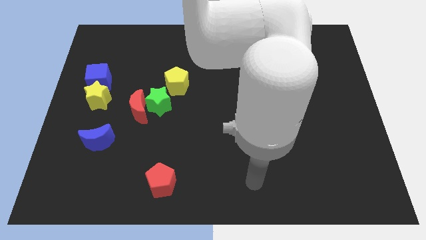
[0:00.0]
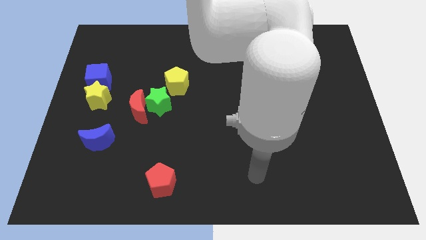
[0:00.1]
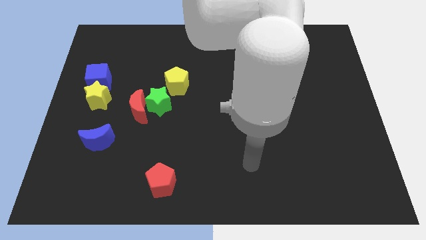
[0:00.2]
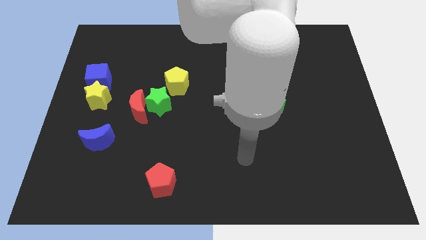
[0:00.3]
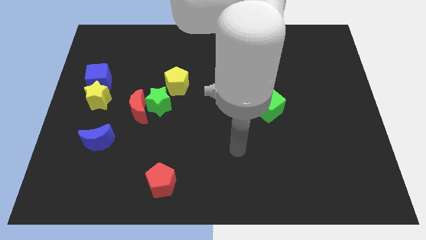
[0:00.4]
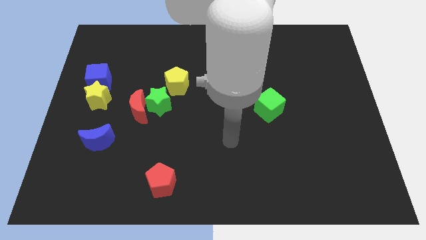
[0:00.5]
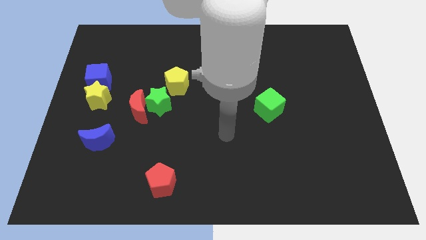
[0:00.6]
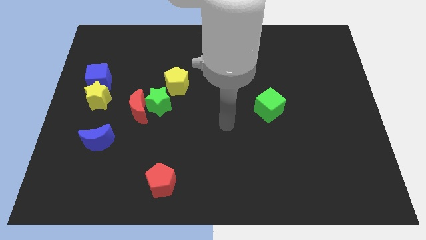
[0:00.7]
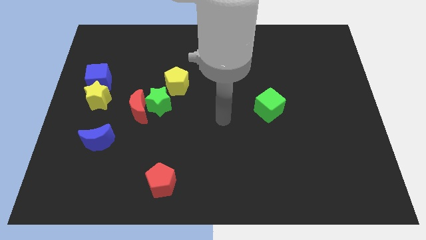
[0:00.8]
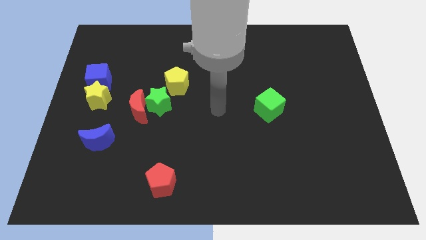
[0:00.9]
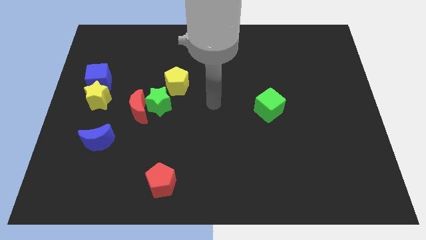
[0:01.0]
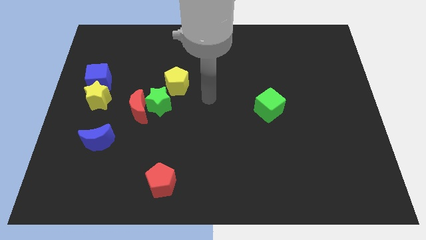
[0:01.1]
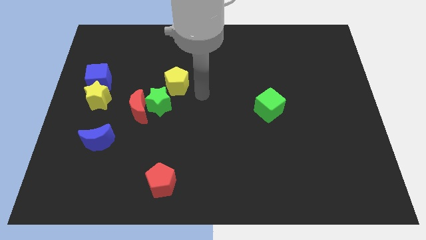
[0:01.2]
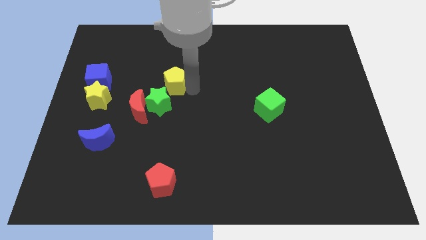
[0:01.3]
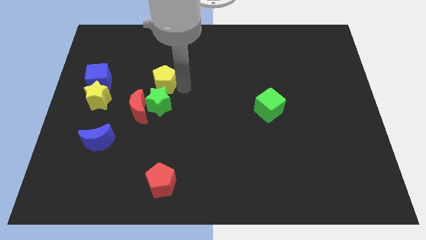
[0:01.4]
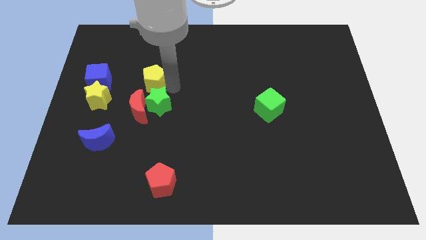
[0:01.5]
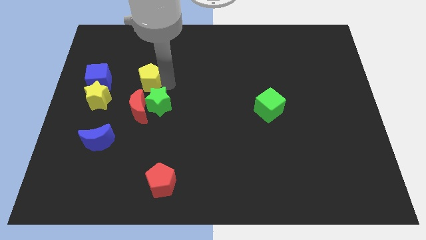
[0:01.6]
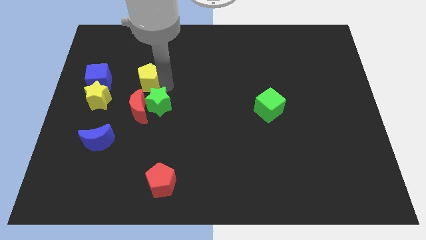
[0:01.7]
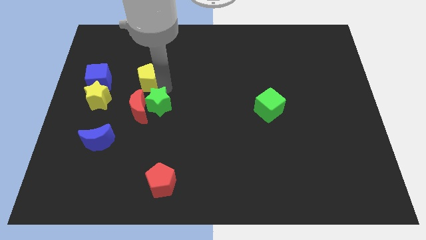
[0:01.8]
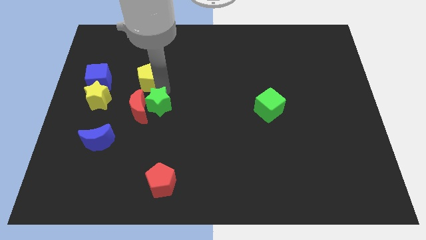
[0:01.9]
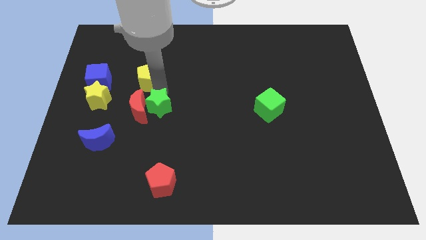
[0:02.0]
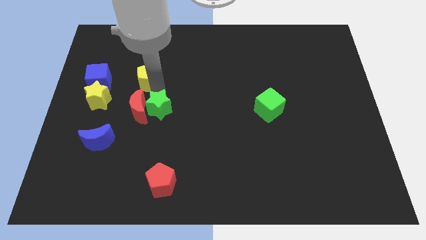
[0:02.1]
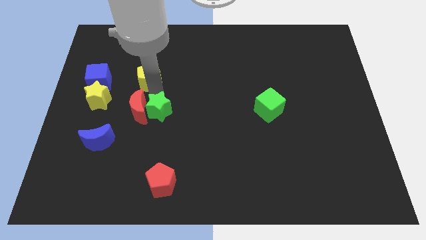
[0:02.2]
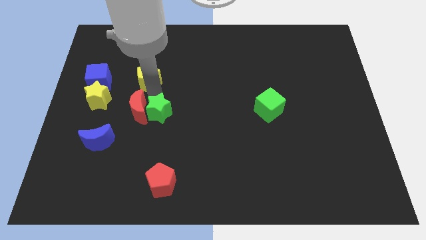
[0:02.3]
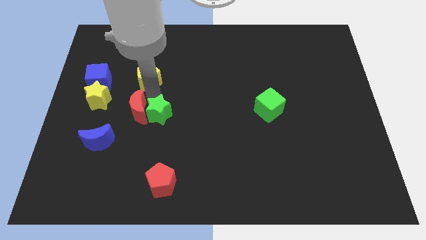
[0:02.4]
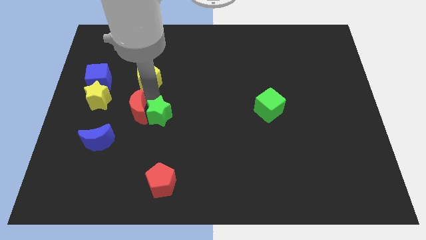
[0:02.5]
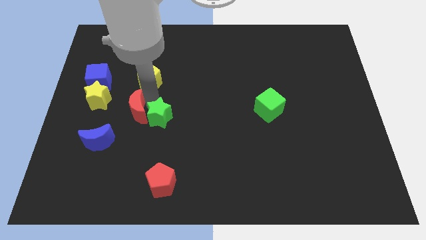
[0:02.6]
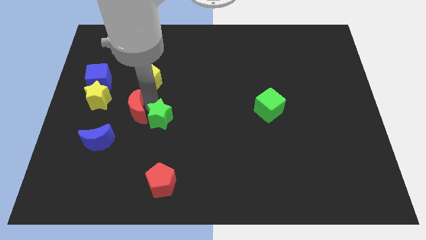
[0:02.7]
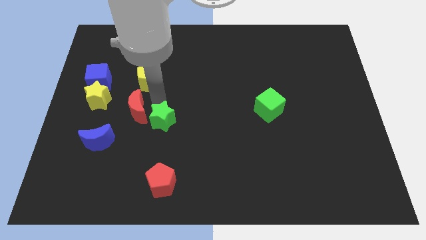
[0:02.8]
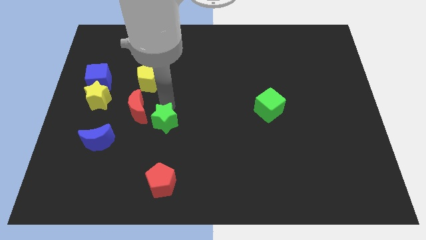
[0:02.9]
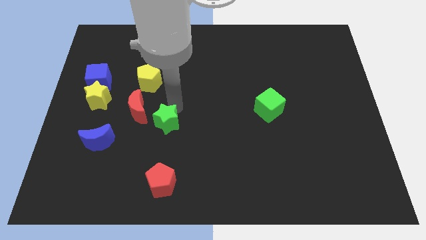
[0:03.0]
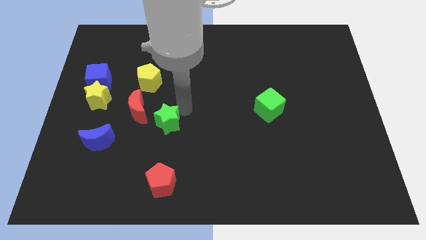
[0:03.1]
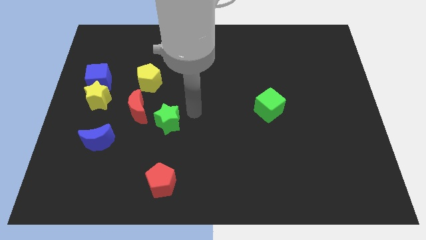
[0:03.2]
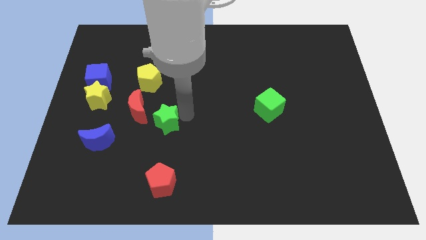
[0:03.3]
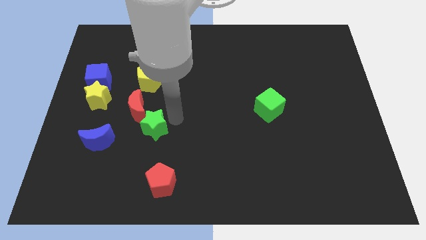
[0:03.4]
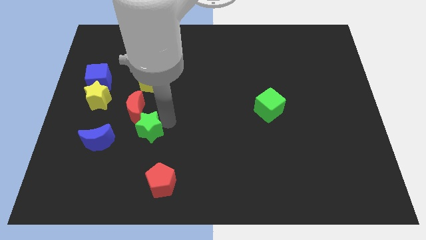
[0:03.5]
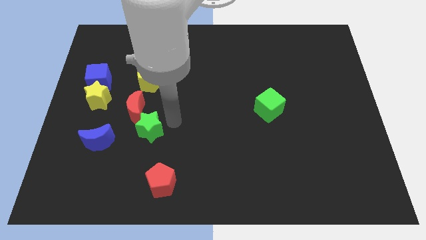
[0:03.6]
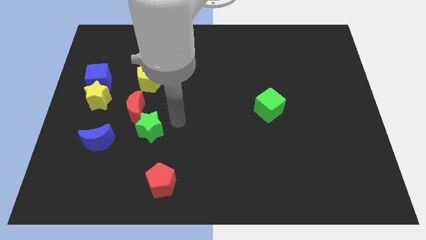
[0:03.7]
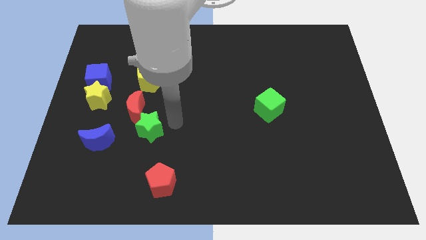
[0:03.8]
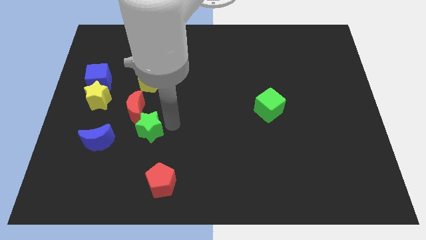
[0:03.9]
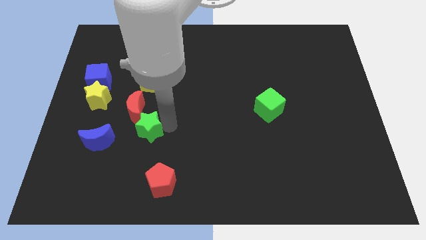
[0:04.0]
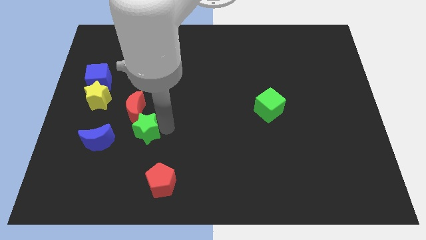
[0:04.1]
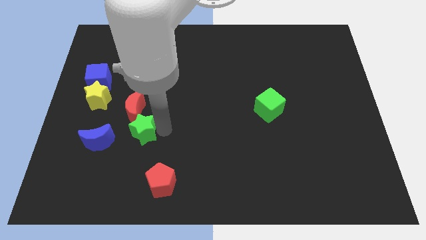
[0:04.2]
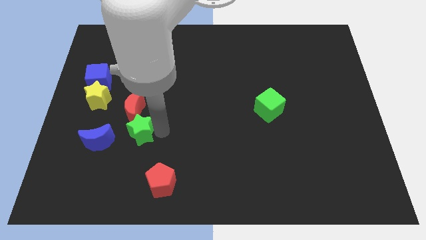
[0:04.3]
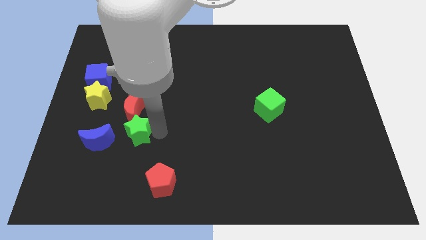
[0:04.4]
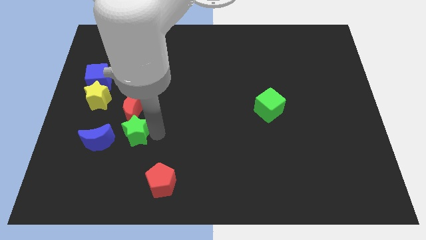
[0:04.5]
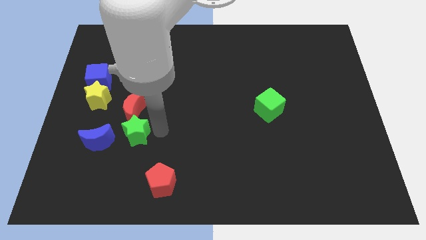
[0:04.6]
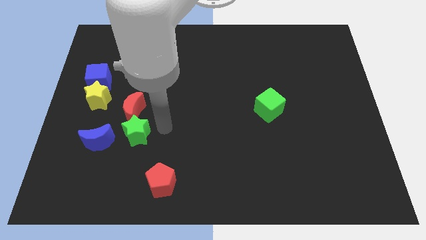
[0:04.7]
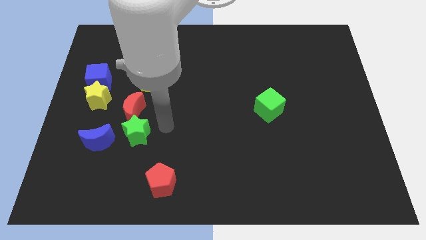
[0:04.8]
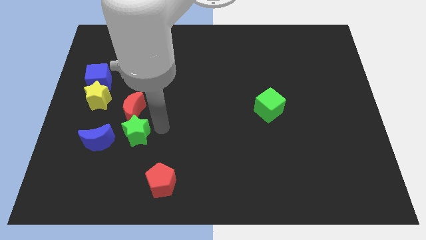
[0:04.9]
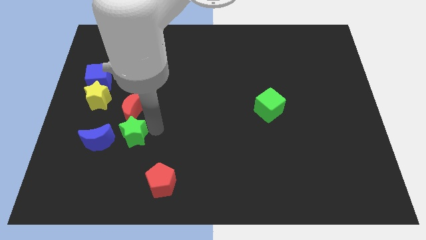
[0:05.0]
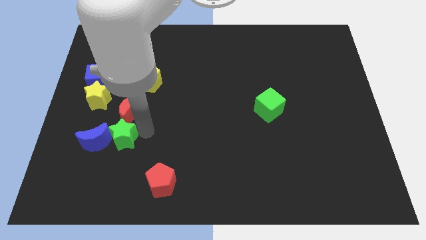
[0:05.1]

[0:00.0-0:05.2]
put the green star close to the blue moon

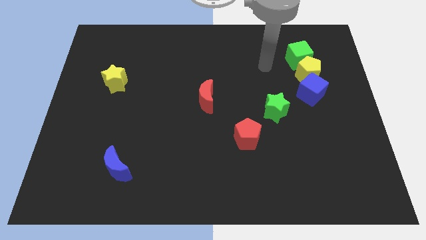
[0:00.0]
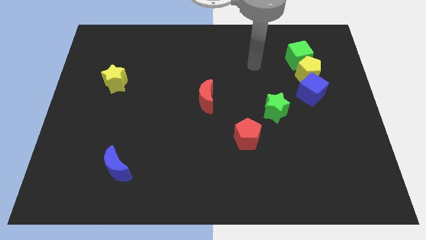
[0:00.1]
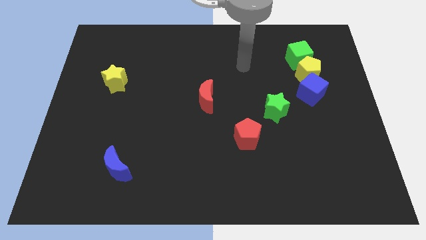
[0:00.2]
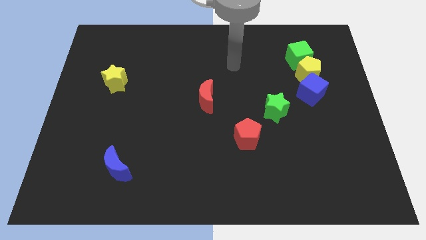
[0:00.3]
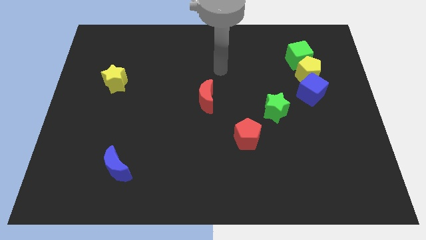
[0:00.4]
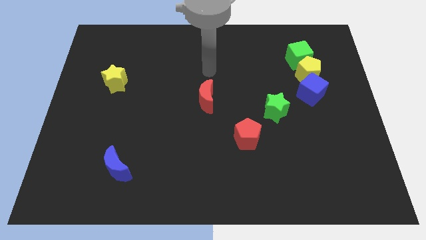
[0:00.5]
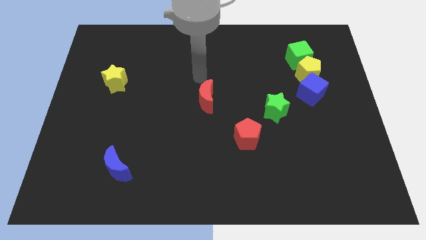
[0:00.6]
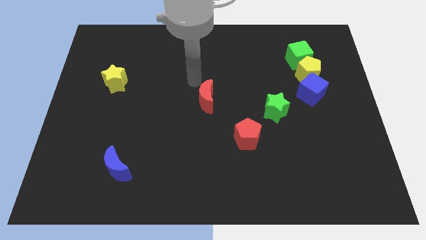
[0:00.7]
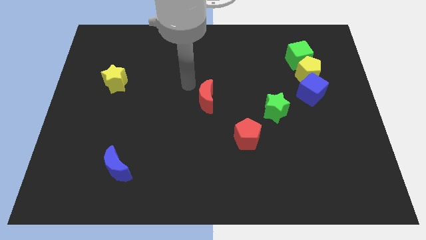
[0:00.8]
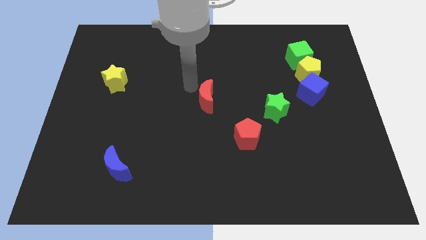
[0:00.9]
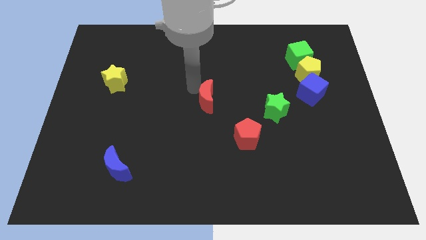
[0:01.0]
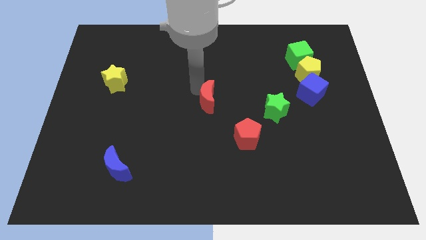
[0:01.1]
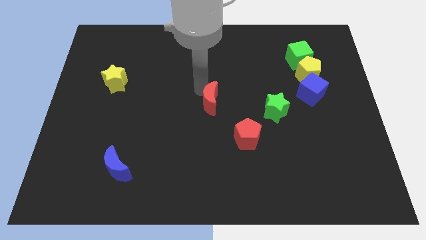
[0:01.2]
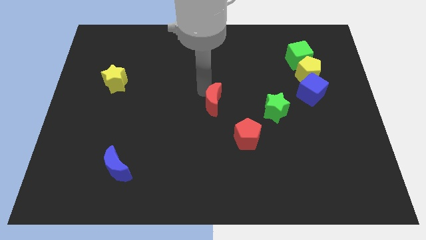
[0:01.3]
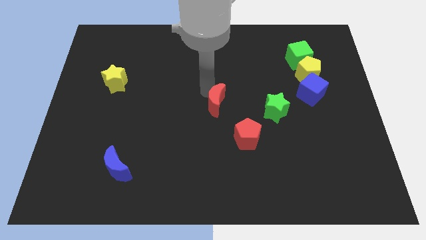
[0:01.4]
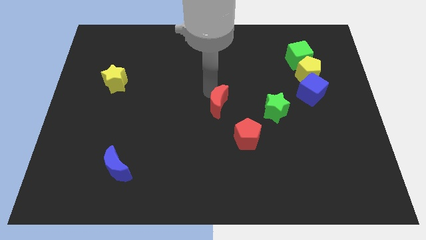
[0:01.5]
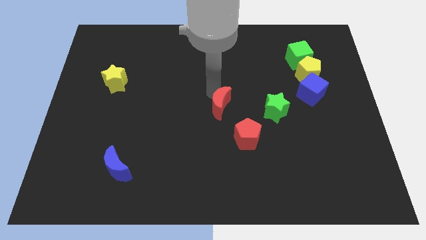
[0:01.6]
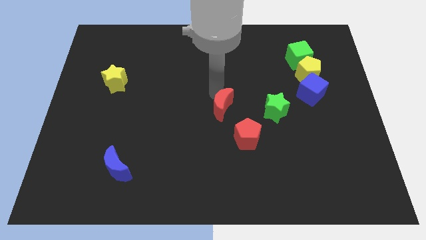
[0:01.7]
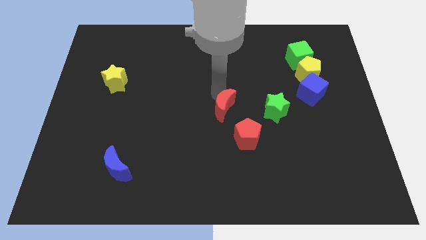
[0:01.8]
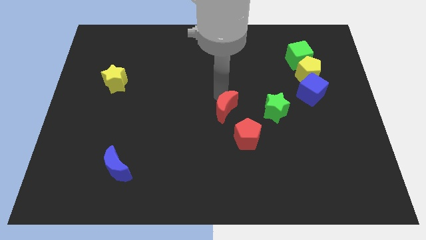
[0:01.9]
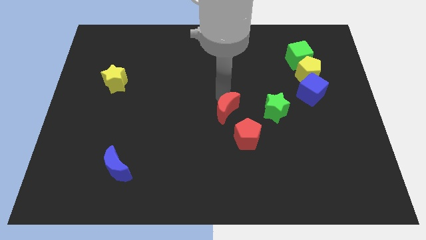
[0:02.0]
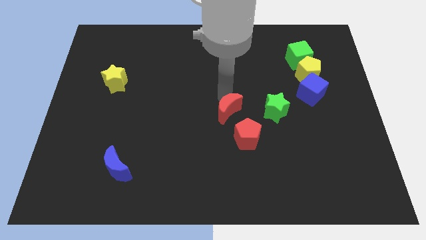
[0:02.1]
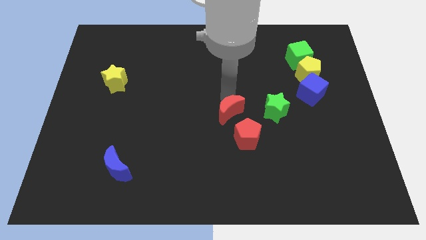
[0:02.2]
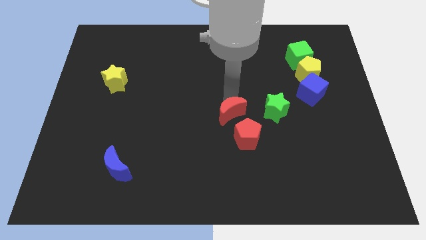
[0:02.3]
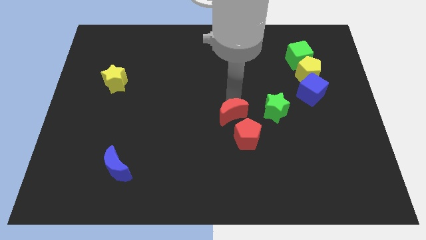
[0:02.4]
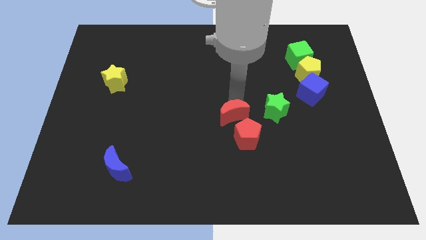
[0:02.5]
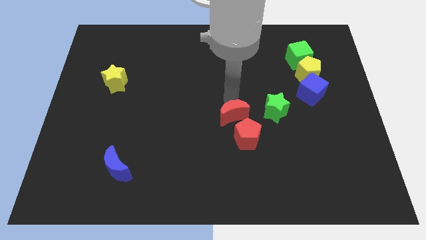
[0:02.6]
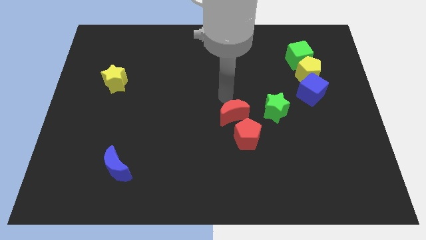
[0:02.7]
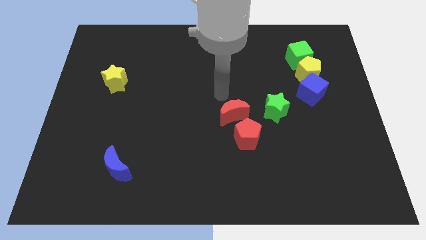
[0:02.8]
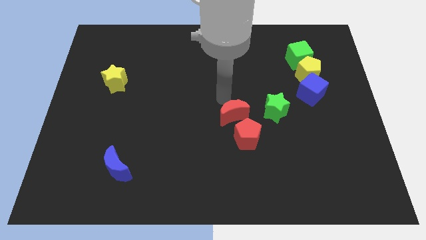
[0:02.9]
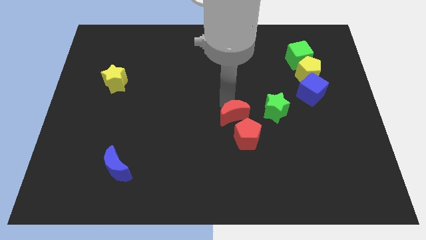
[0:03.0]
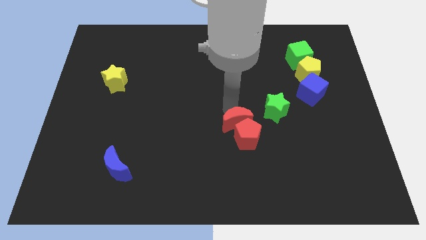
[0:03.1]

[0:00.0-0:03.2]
push the red moon towards the red pentagon
